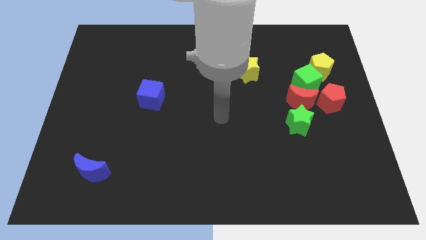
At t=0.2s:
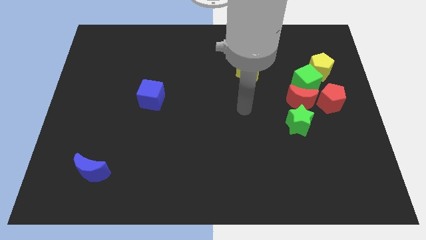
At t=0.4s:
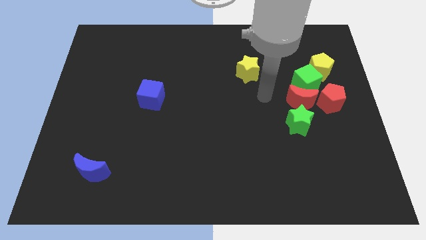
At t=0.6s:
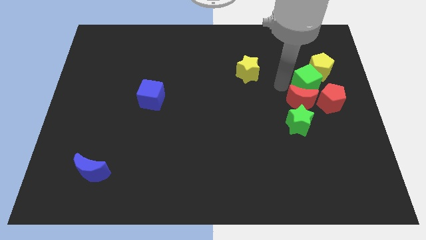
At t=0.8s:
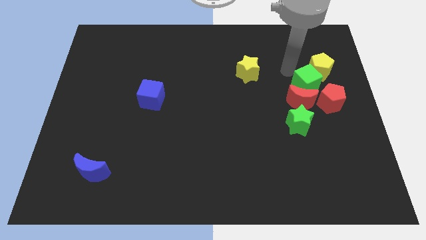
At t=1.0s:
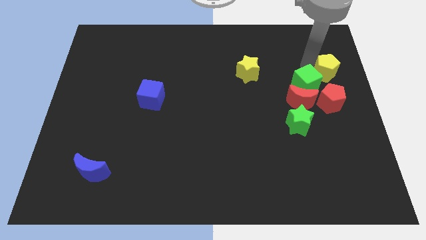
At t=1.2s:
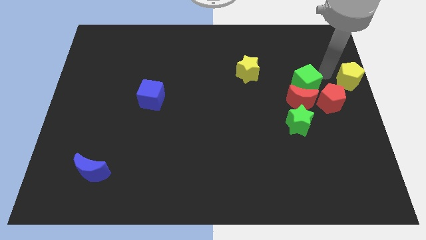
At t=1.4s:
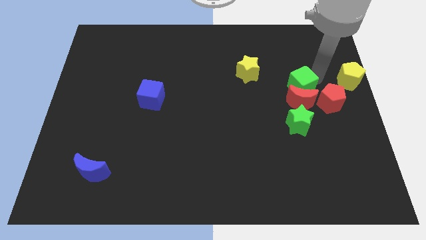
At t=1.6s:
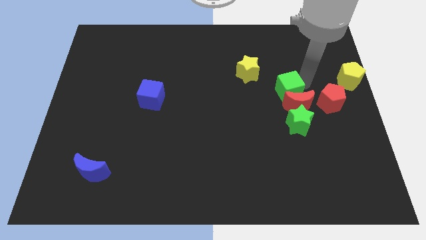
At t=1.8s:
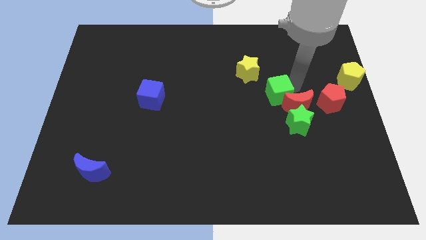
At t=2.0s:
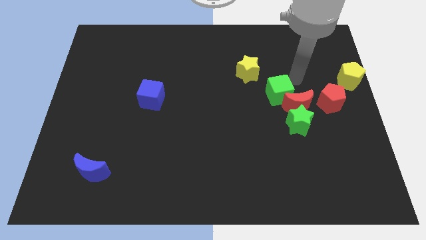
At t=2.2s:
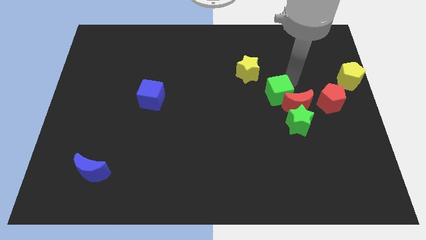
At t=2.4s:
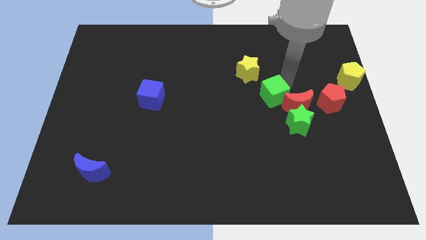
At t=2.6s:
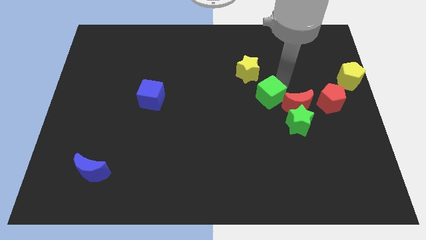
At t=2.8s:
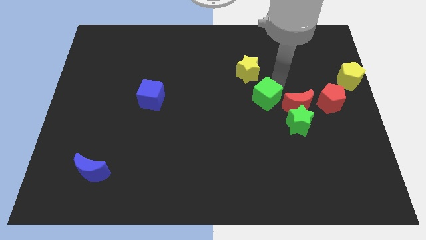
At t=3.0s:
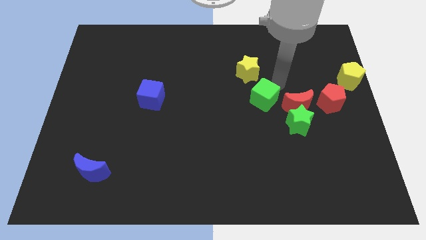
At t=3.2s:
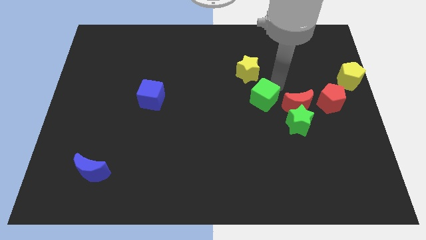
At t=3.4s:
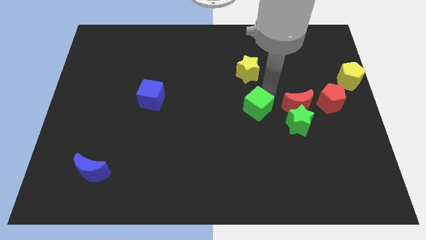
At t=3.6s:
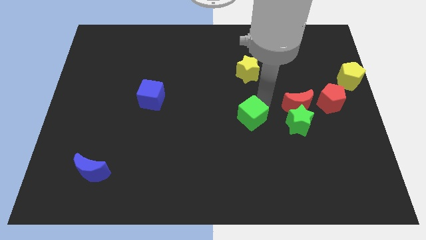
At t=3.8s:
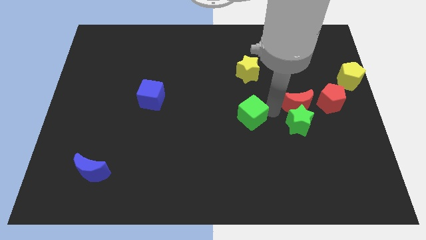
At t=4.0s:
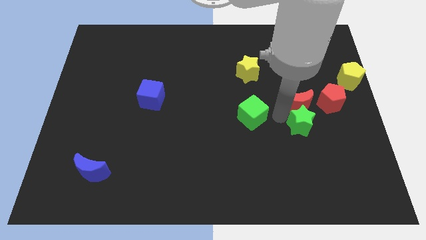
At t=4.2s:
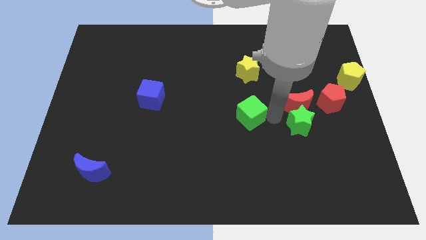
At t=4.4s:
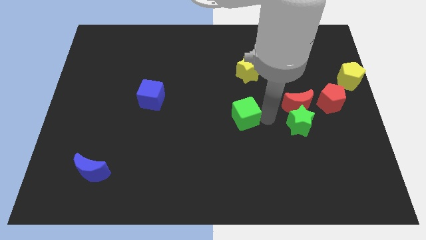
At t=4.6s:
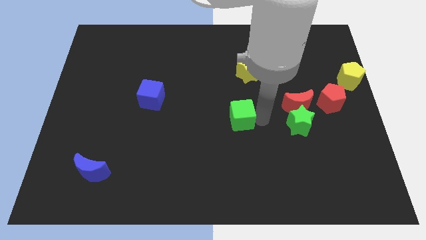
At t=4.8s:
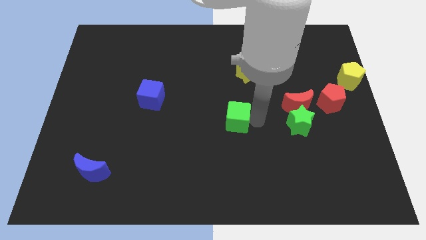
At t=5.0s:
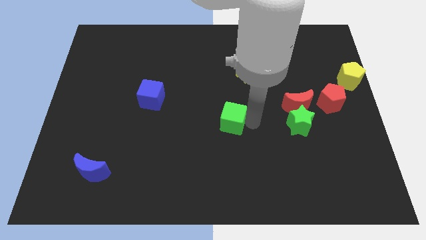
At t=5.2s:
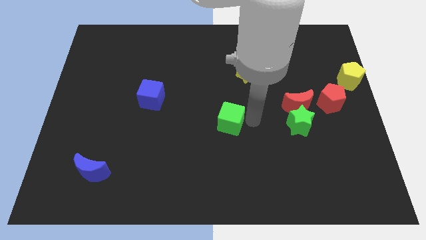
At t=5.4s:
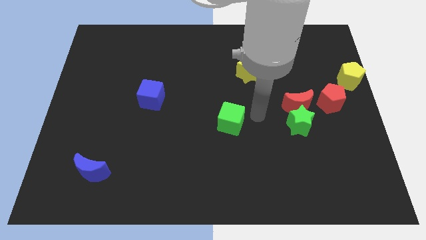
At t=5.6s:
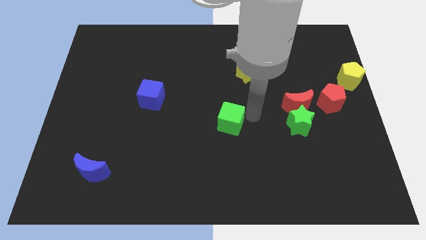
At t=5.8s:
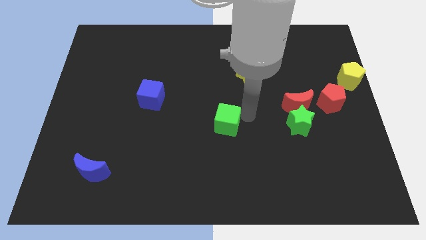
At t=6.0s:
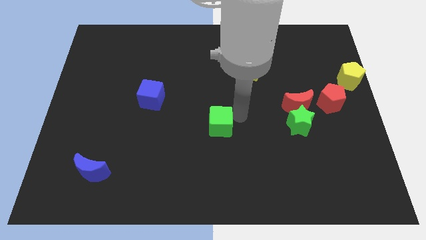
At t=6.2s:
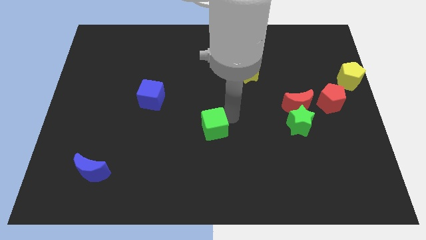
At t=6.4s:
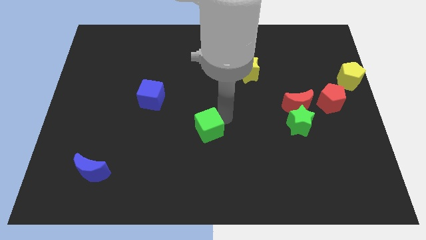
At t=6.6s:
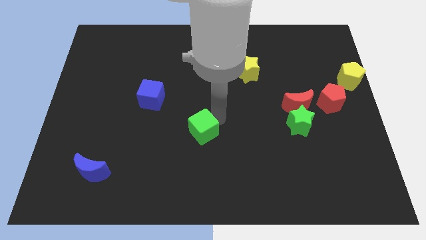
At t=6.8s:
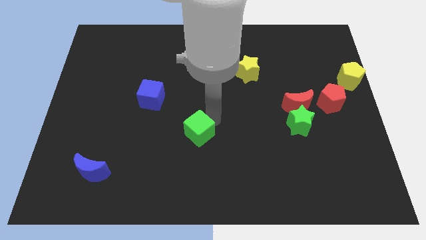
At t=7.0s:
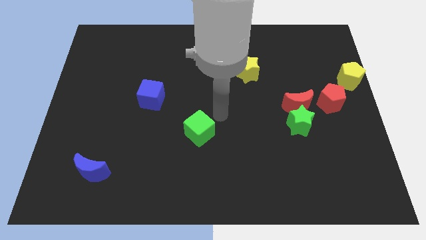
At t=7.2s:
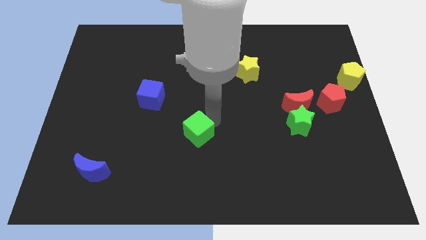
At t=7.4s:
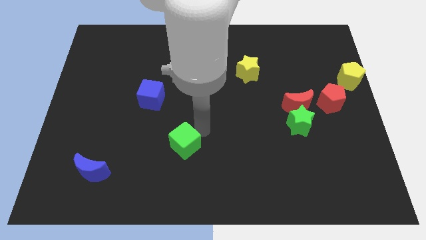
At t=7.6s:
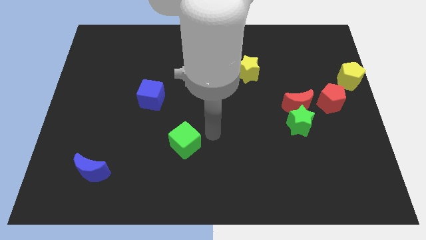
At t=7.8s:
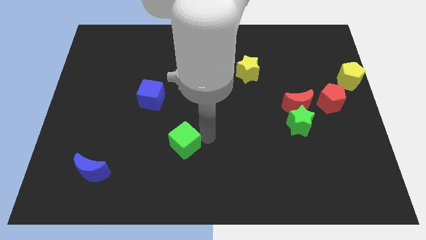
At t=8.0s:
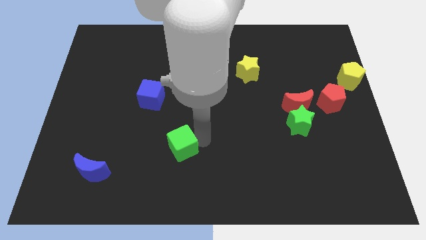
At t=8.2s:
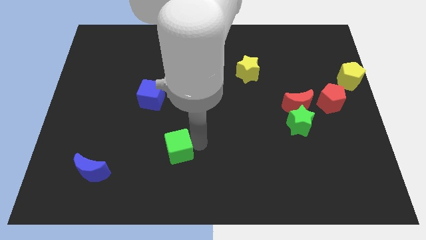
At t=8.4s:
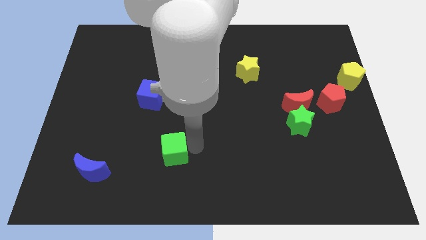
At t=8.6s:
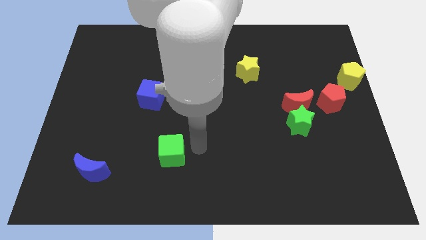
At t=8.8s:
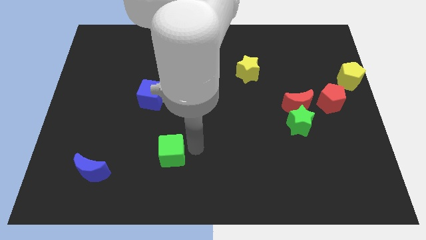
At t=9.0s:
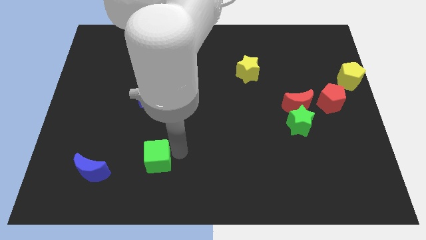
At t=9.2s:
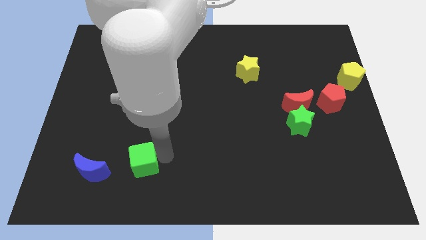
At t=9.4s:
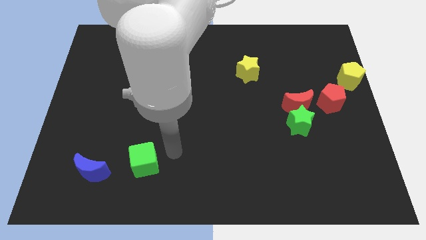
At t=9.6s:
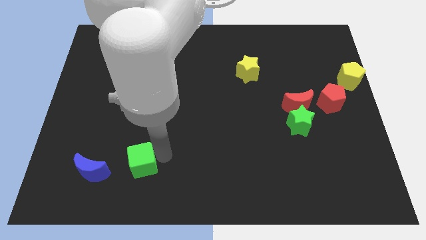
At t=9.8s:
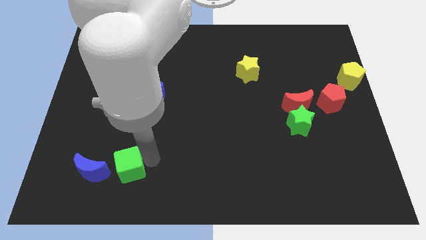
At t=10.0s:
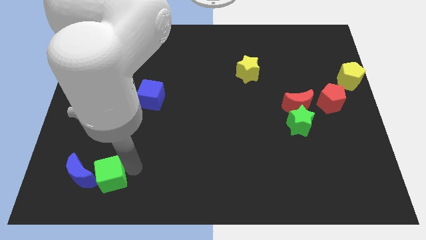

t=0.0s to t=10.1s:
slide the green cube towards the blue moon

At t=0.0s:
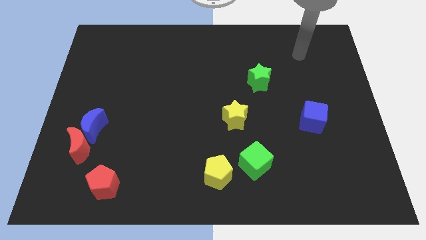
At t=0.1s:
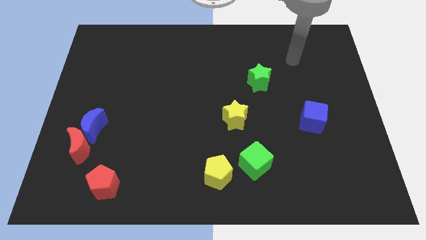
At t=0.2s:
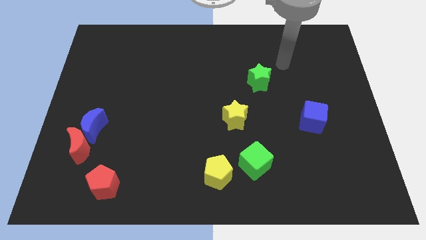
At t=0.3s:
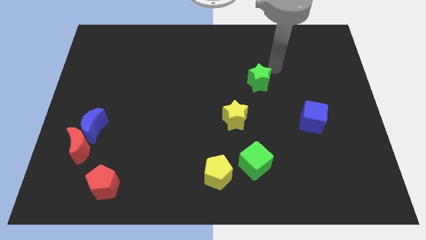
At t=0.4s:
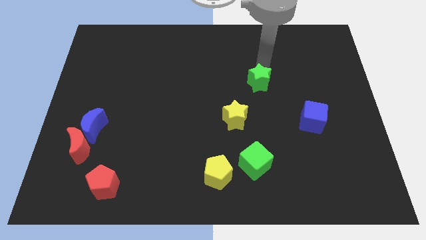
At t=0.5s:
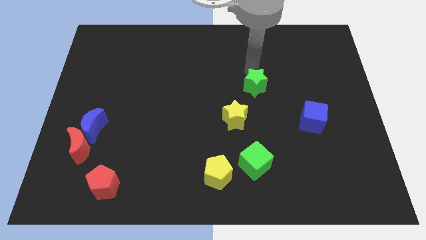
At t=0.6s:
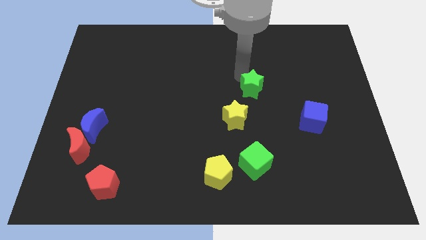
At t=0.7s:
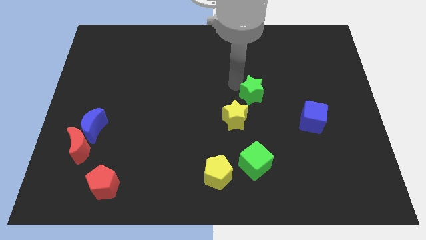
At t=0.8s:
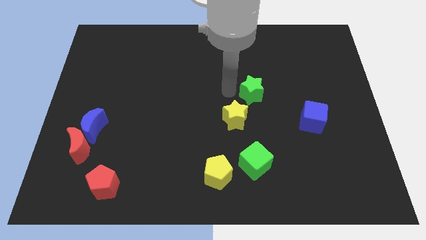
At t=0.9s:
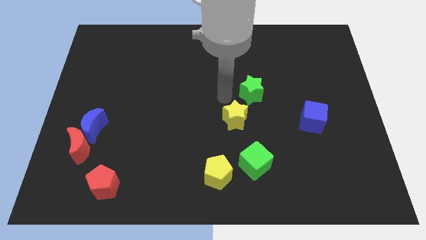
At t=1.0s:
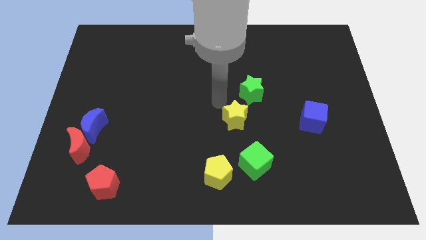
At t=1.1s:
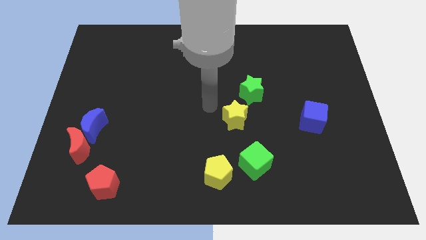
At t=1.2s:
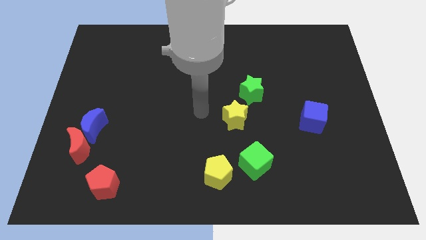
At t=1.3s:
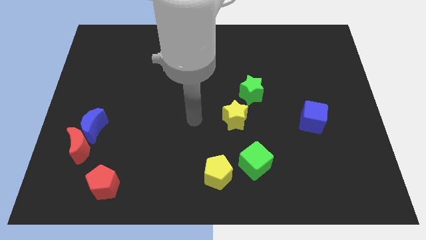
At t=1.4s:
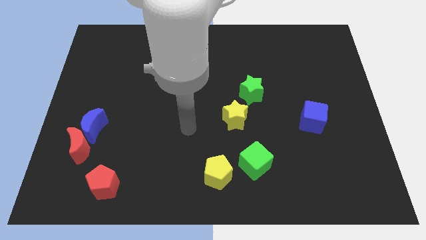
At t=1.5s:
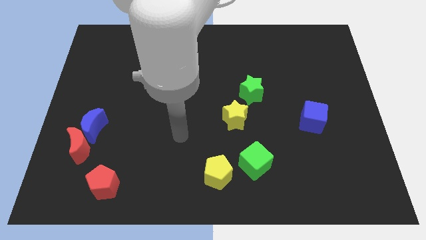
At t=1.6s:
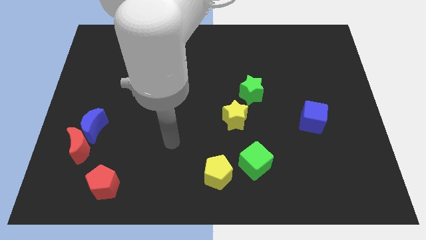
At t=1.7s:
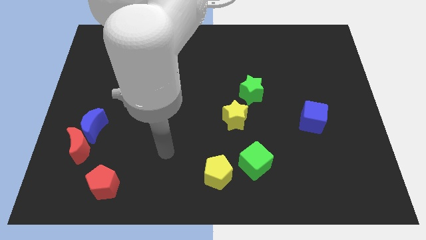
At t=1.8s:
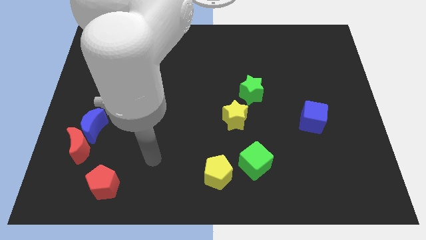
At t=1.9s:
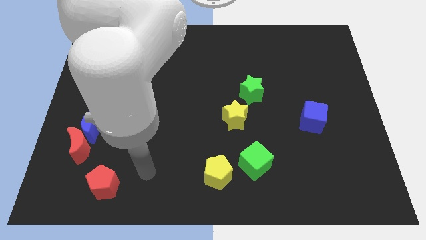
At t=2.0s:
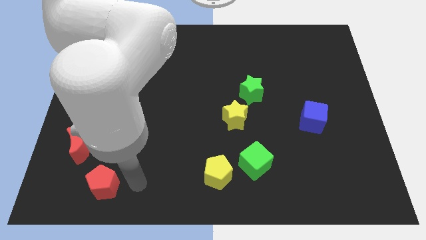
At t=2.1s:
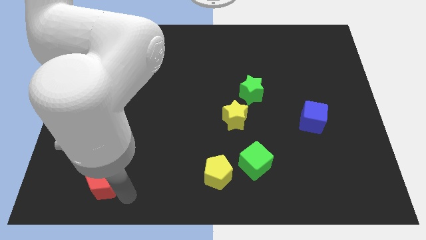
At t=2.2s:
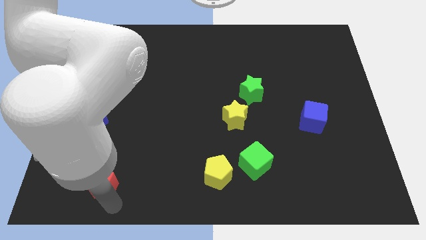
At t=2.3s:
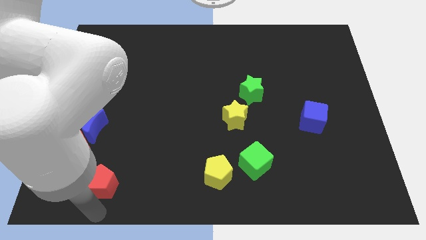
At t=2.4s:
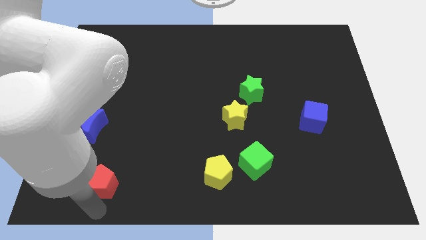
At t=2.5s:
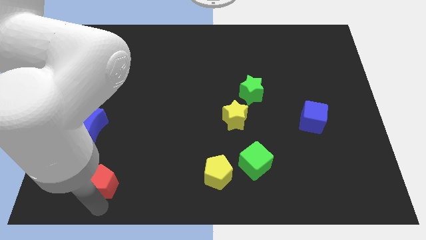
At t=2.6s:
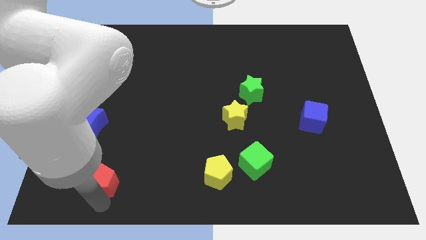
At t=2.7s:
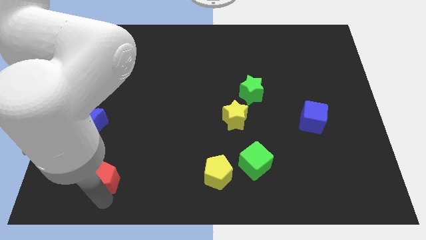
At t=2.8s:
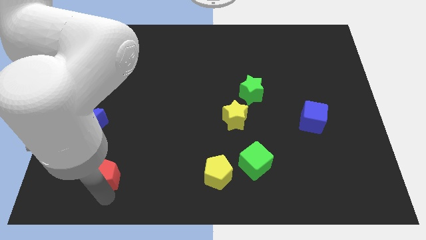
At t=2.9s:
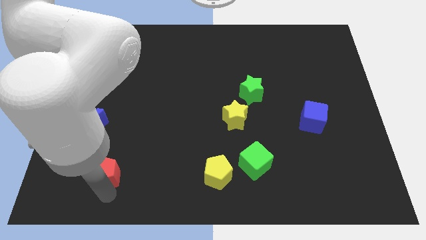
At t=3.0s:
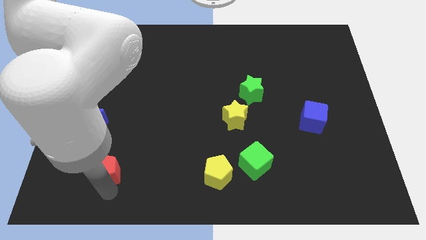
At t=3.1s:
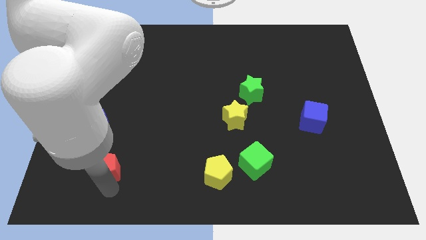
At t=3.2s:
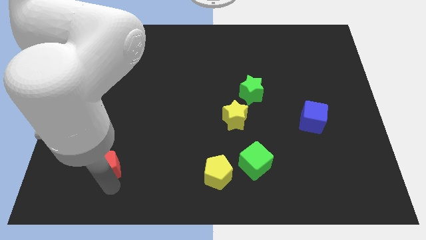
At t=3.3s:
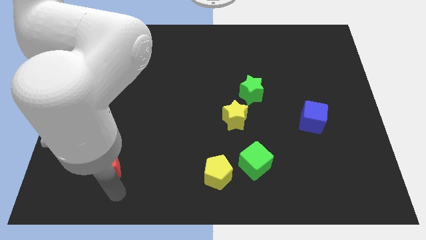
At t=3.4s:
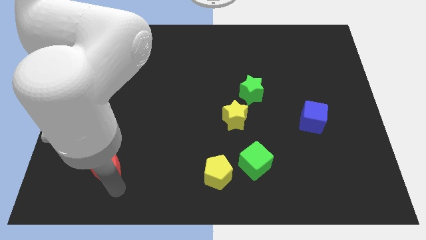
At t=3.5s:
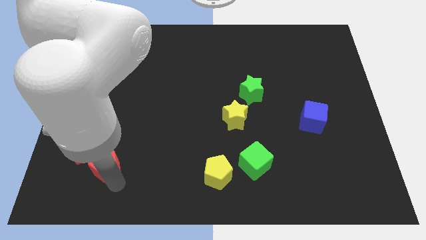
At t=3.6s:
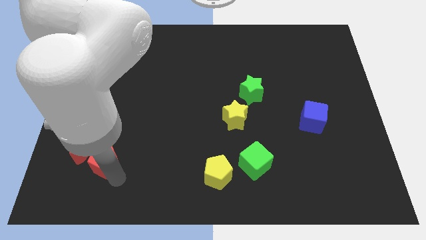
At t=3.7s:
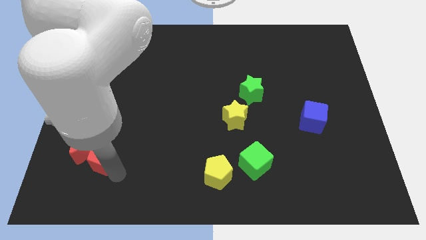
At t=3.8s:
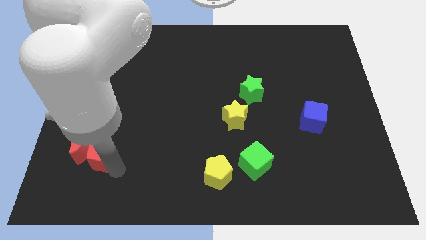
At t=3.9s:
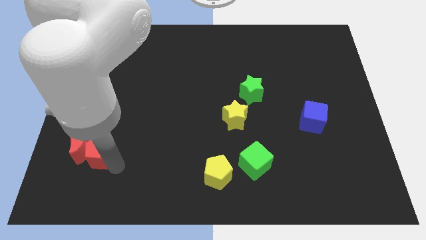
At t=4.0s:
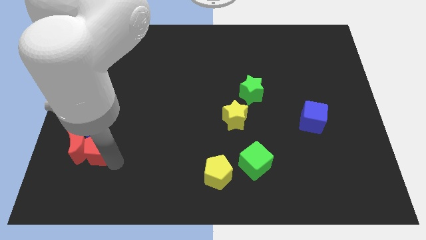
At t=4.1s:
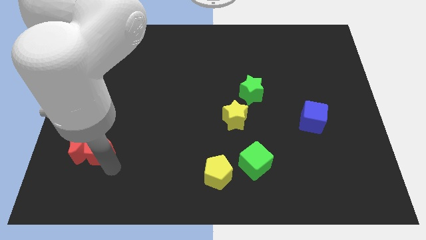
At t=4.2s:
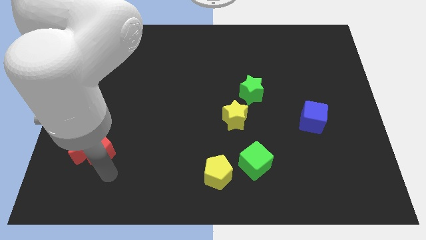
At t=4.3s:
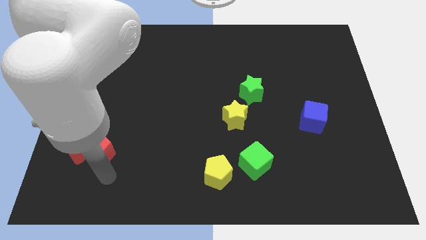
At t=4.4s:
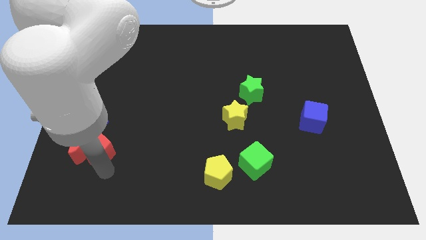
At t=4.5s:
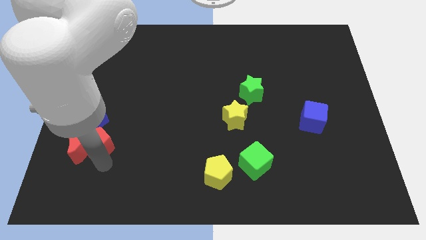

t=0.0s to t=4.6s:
push the red pentagon next to the blue moon
